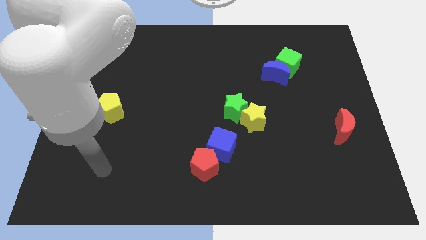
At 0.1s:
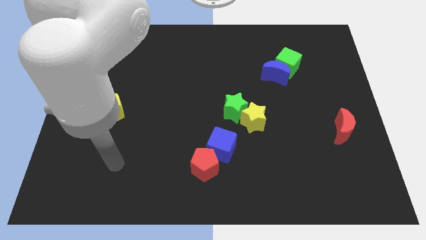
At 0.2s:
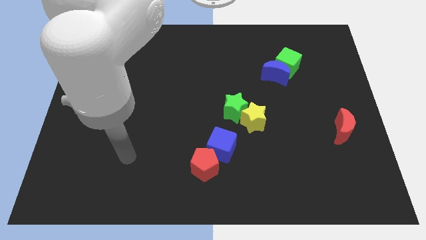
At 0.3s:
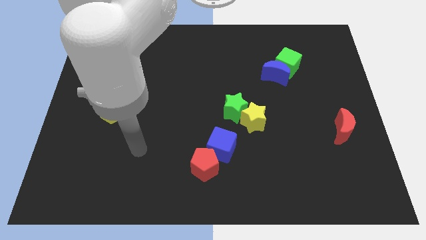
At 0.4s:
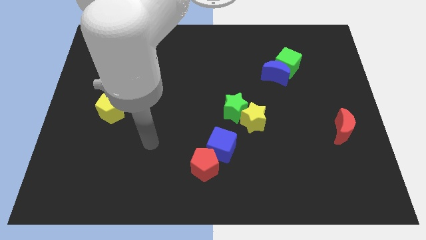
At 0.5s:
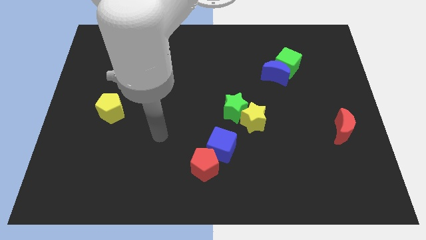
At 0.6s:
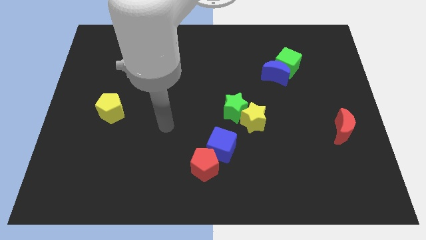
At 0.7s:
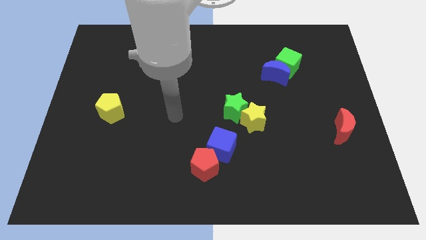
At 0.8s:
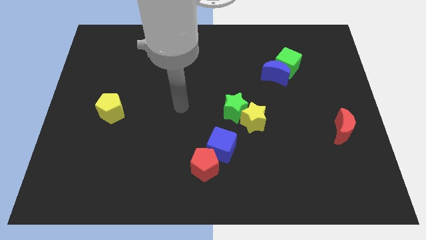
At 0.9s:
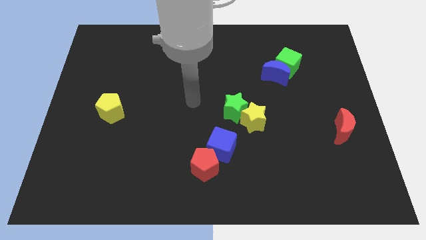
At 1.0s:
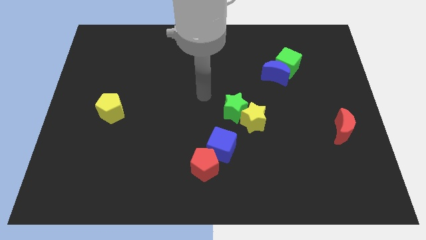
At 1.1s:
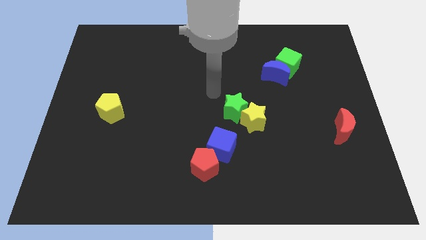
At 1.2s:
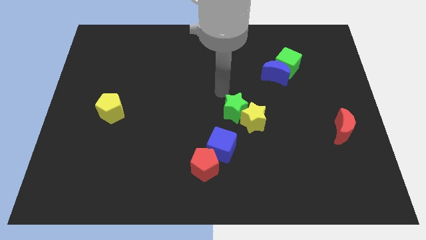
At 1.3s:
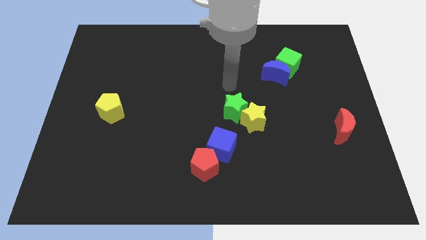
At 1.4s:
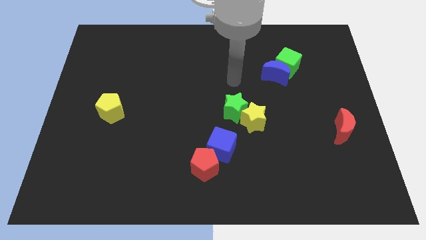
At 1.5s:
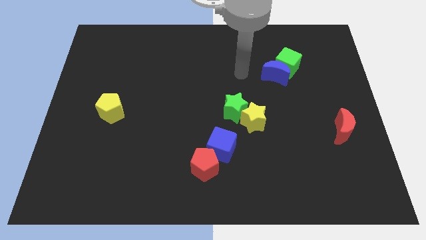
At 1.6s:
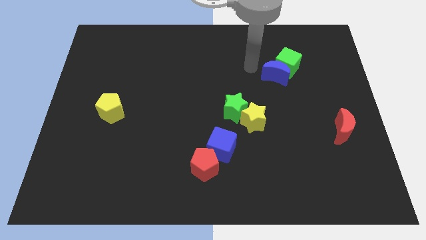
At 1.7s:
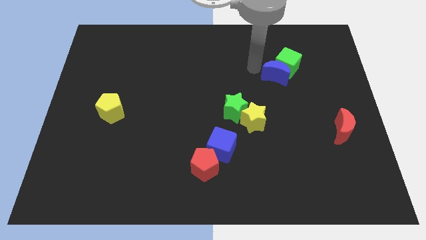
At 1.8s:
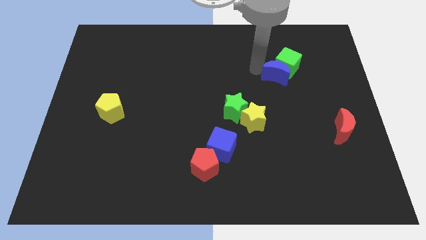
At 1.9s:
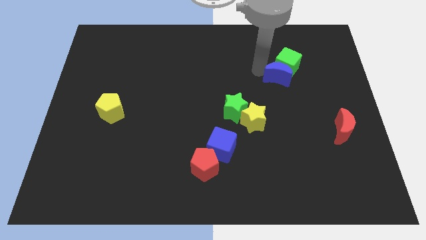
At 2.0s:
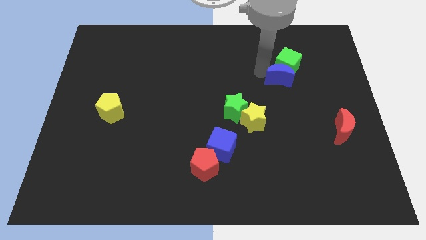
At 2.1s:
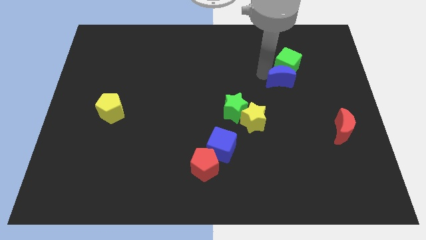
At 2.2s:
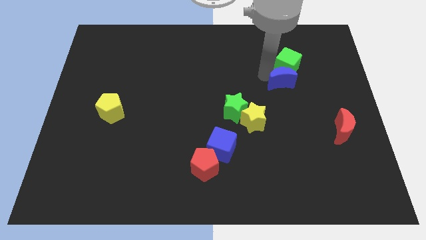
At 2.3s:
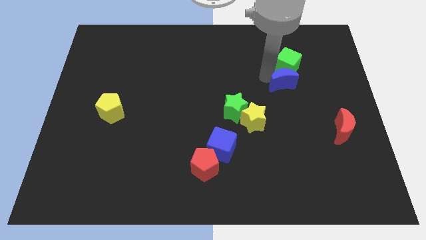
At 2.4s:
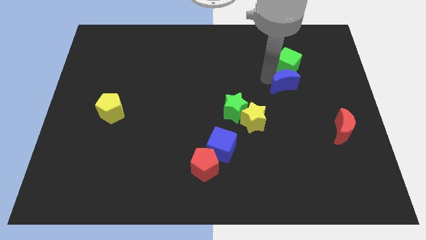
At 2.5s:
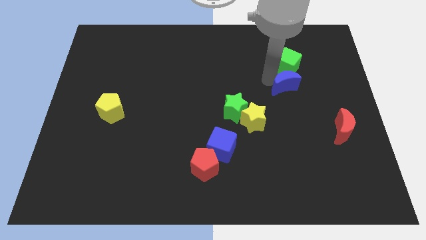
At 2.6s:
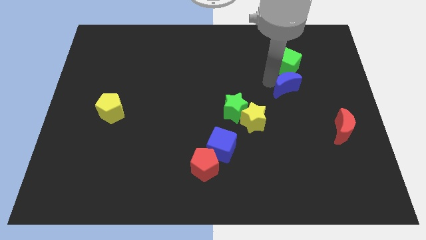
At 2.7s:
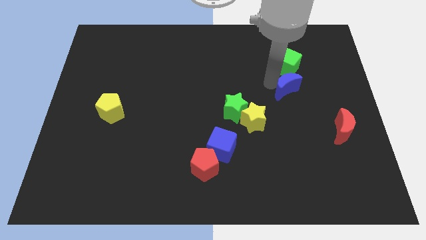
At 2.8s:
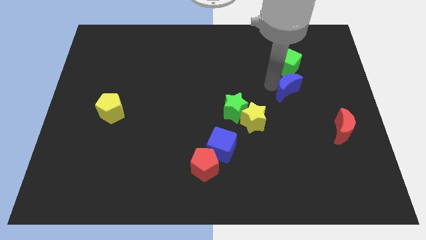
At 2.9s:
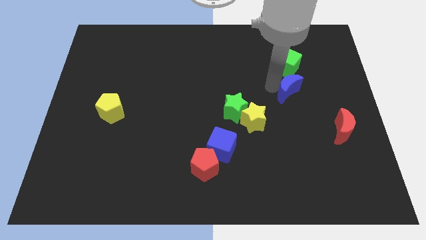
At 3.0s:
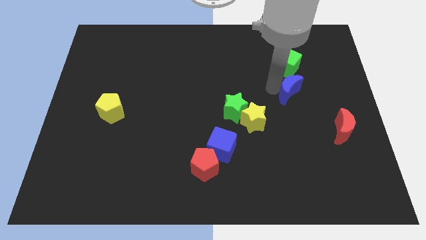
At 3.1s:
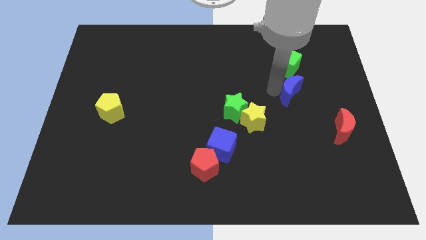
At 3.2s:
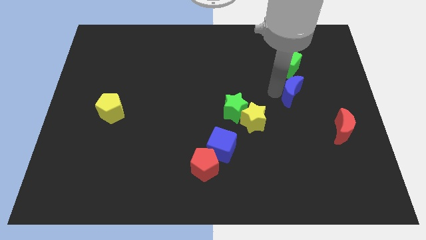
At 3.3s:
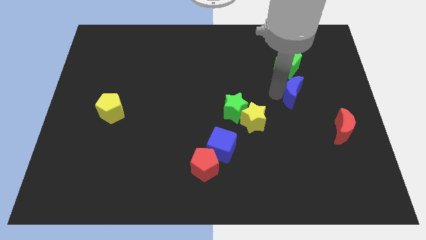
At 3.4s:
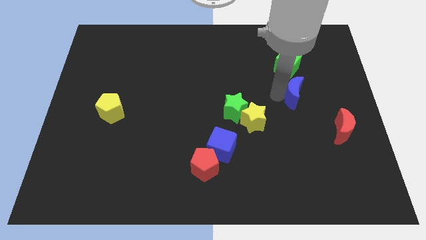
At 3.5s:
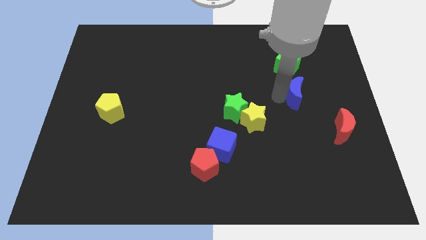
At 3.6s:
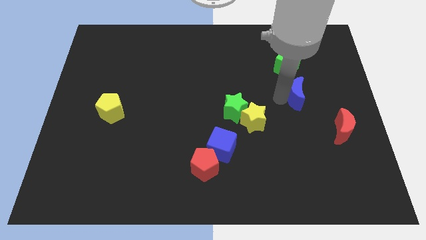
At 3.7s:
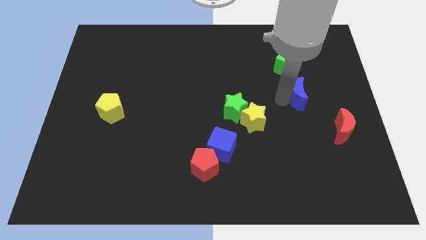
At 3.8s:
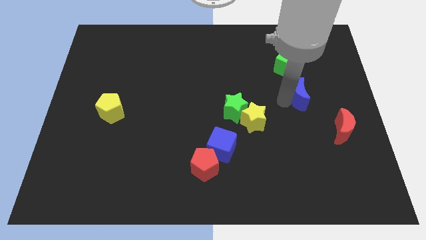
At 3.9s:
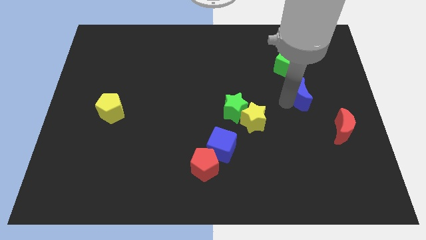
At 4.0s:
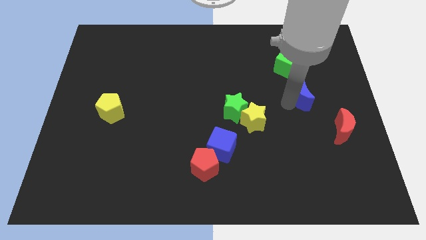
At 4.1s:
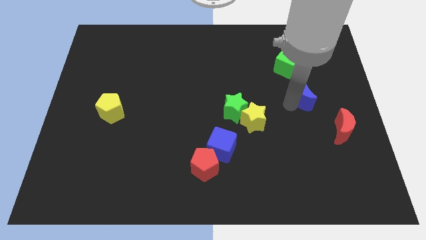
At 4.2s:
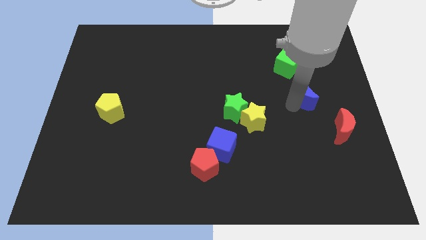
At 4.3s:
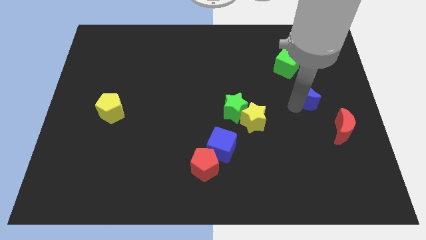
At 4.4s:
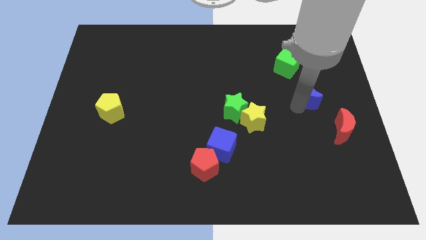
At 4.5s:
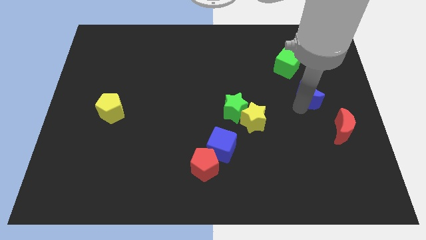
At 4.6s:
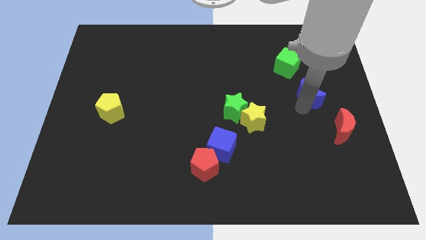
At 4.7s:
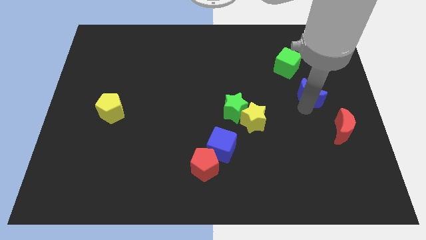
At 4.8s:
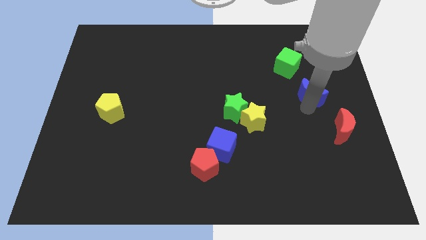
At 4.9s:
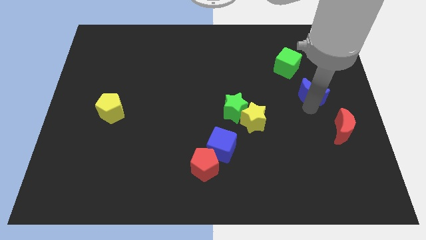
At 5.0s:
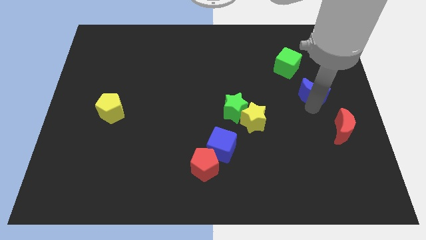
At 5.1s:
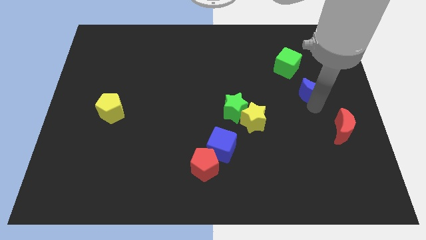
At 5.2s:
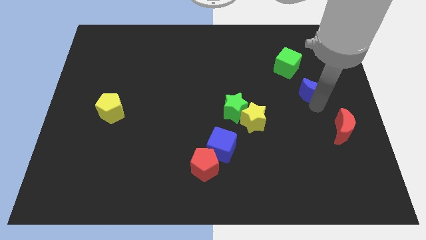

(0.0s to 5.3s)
push the blue moon above the red moon

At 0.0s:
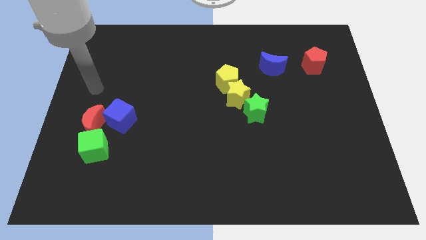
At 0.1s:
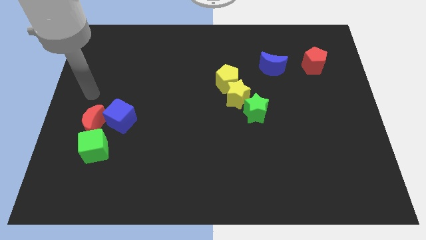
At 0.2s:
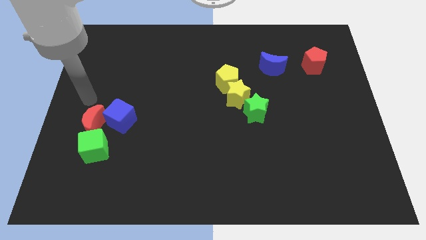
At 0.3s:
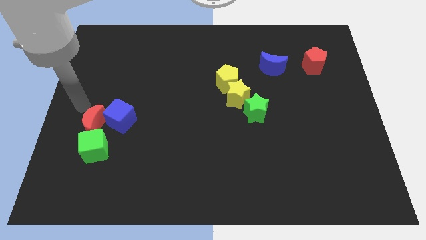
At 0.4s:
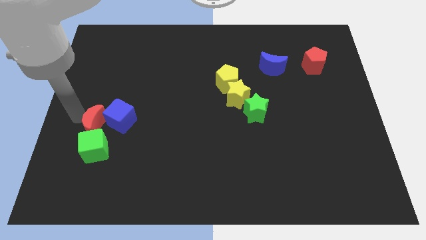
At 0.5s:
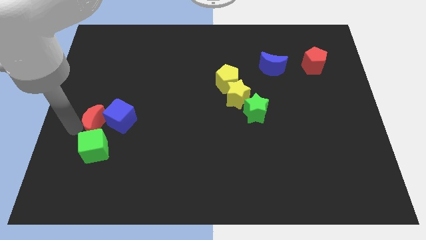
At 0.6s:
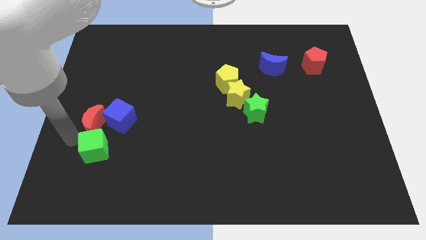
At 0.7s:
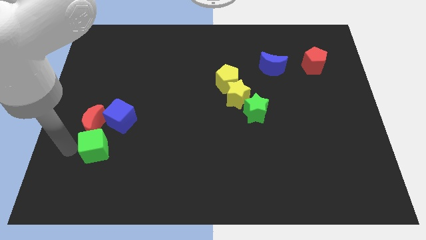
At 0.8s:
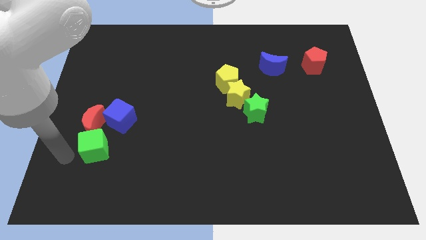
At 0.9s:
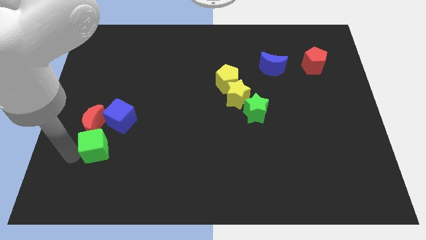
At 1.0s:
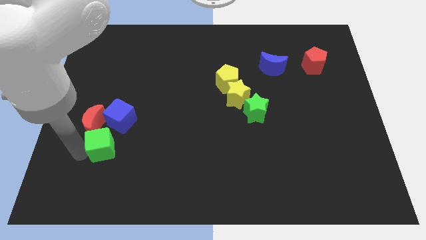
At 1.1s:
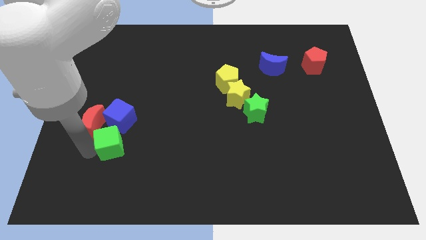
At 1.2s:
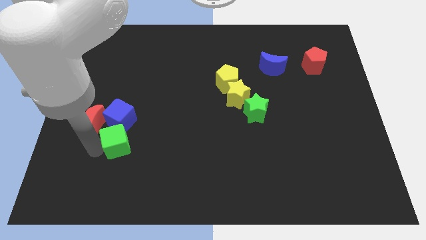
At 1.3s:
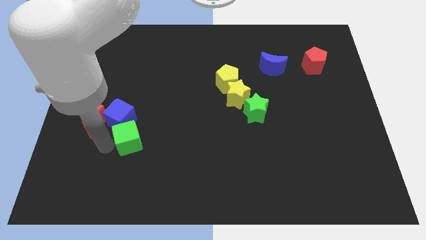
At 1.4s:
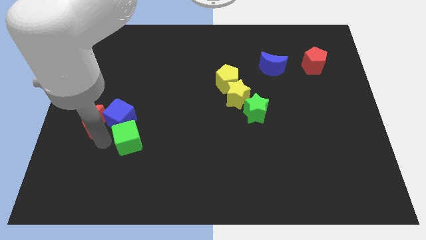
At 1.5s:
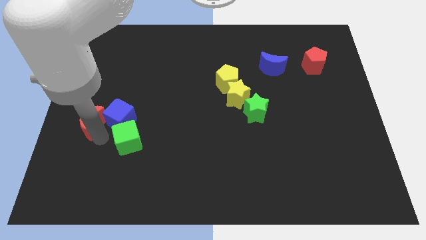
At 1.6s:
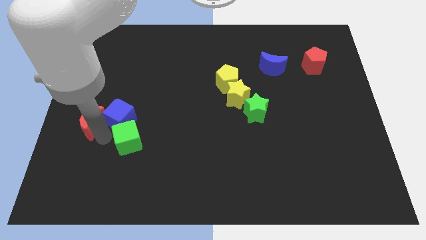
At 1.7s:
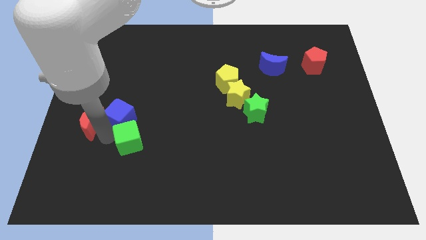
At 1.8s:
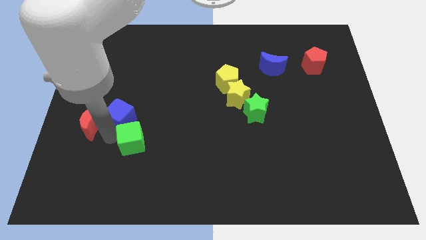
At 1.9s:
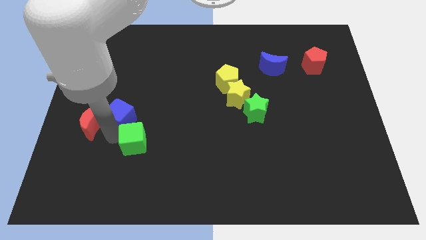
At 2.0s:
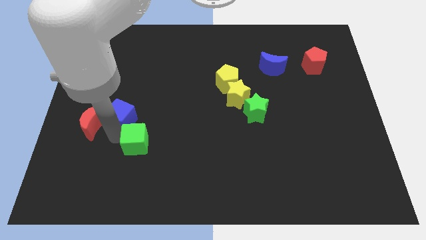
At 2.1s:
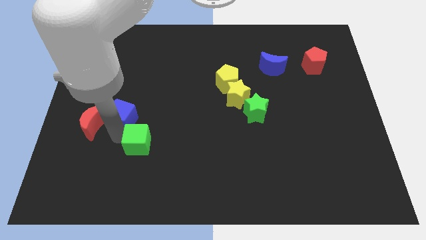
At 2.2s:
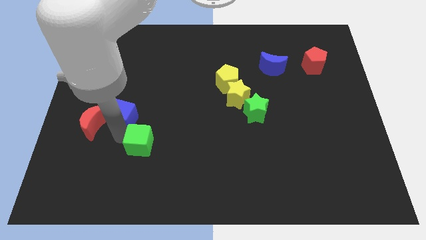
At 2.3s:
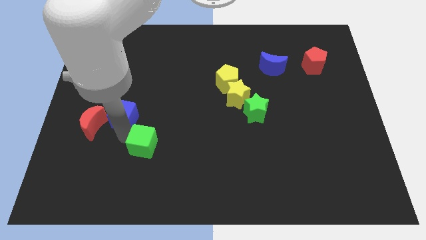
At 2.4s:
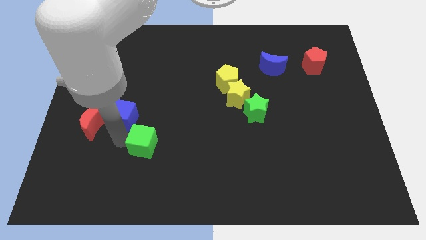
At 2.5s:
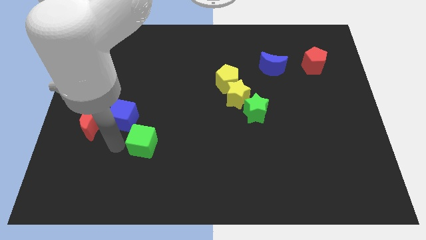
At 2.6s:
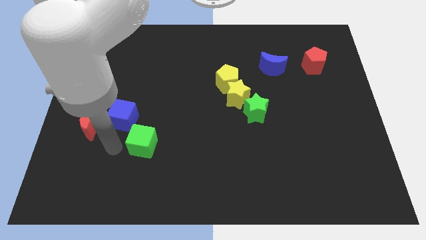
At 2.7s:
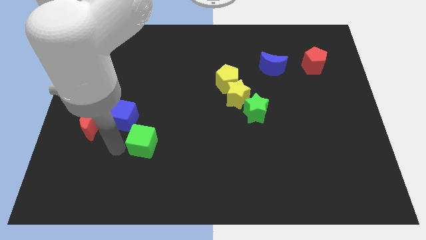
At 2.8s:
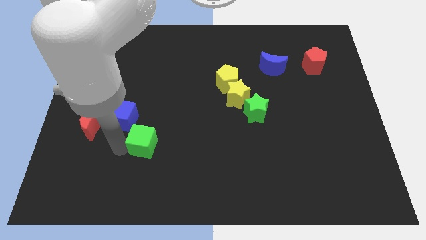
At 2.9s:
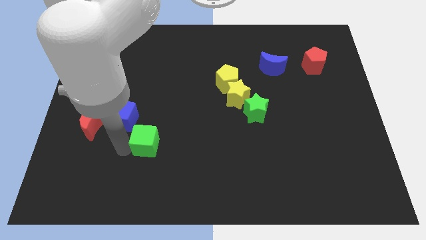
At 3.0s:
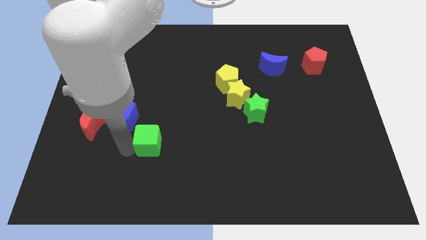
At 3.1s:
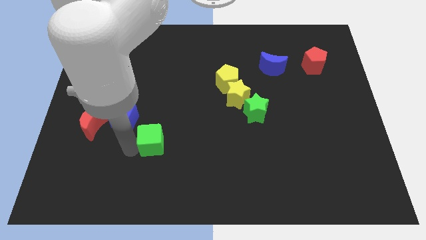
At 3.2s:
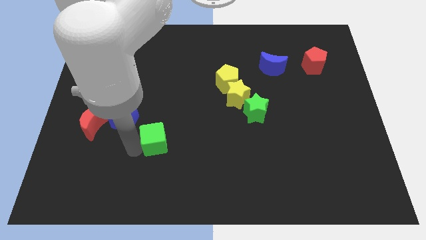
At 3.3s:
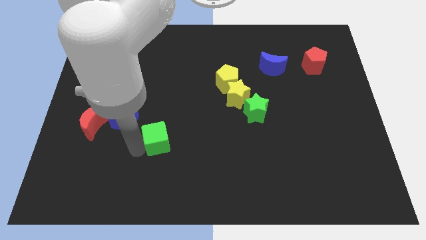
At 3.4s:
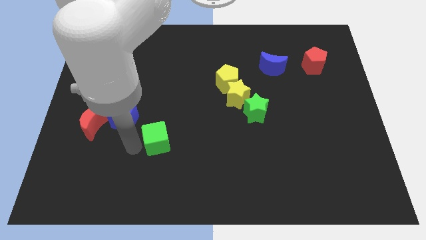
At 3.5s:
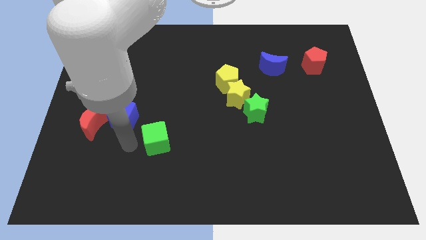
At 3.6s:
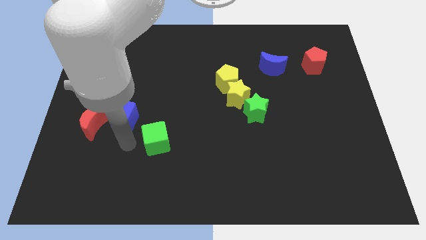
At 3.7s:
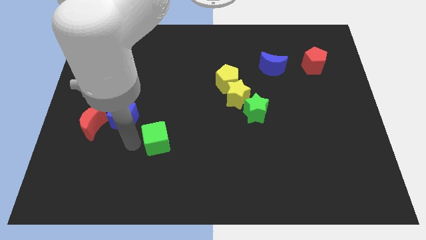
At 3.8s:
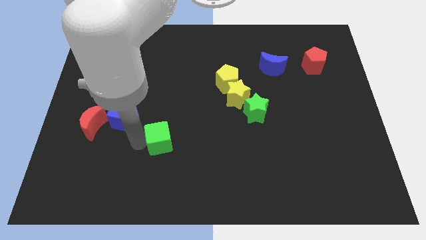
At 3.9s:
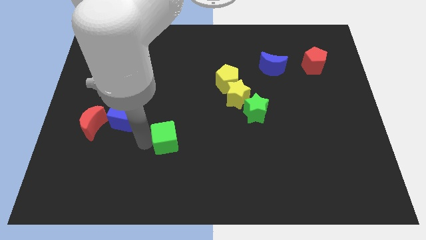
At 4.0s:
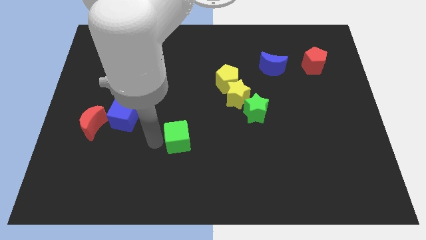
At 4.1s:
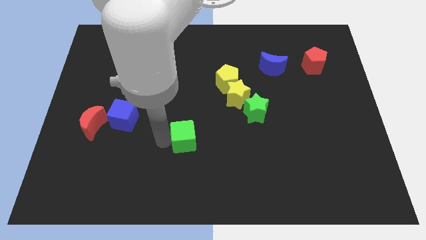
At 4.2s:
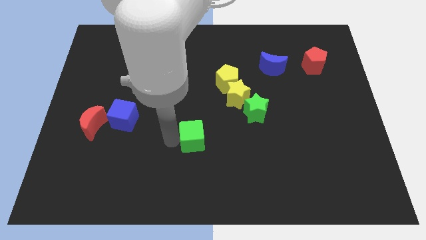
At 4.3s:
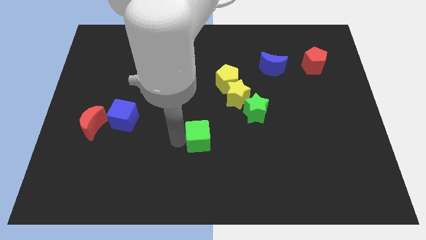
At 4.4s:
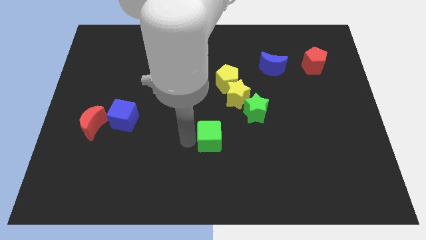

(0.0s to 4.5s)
put the green cube diagonally down and to the left of the green star
